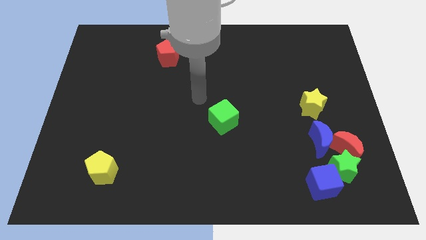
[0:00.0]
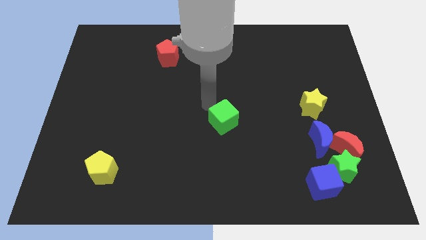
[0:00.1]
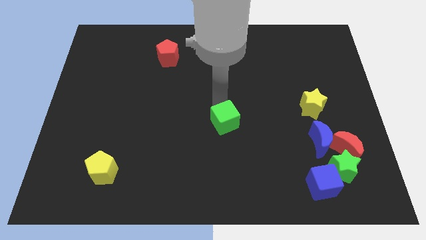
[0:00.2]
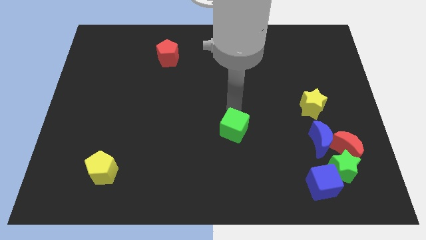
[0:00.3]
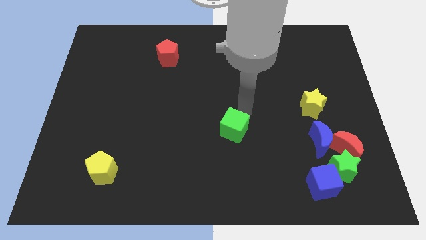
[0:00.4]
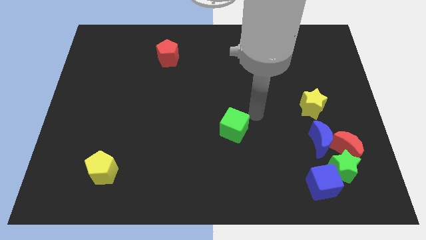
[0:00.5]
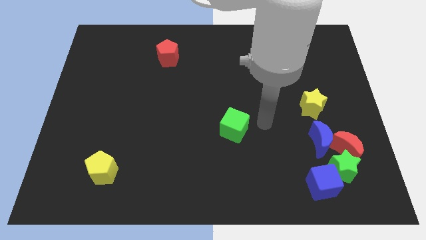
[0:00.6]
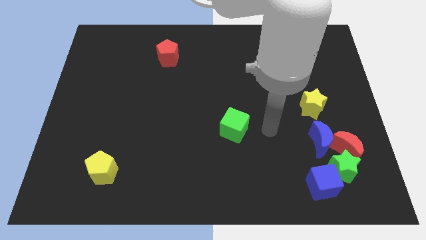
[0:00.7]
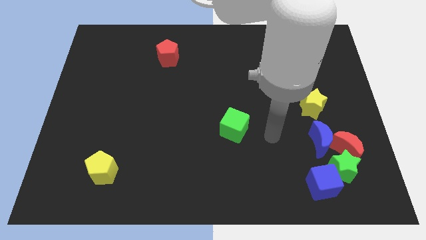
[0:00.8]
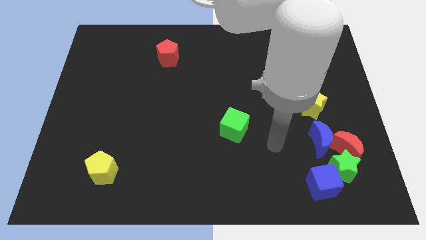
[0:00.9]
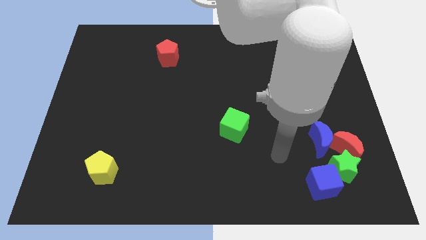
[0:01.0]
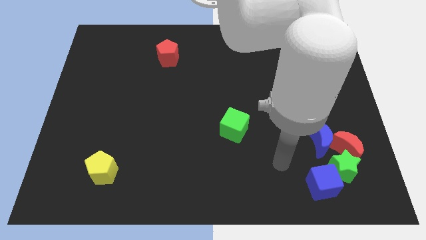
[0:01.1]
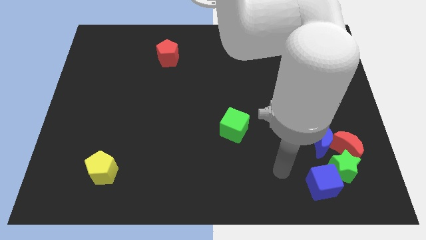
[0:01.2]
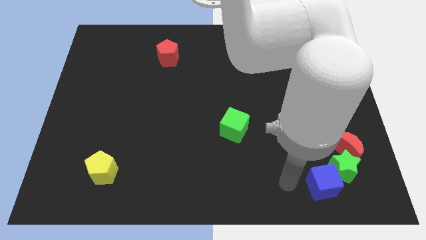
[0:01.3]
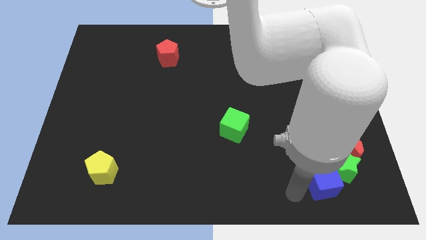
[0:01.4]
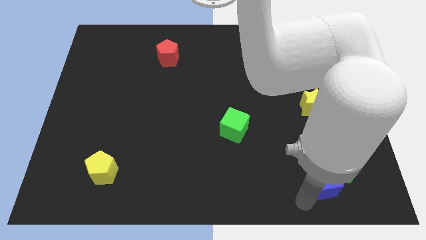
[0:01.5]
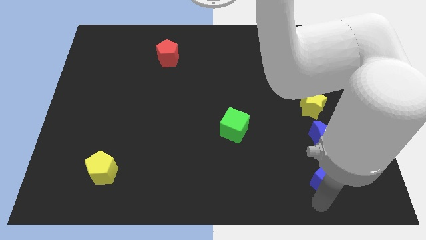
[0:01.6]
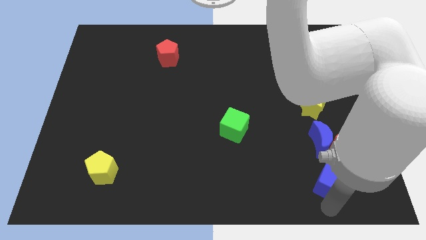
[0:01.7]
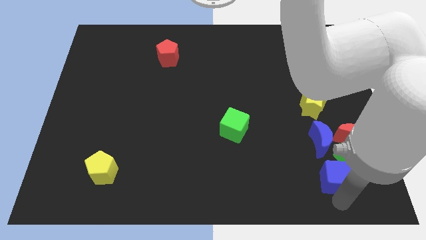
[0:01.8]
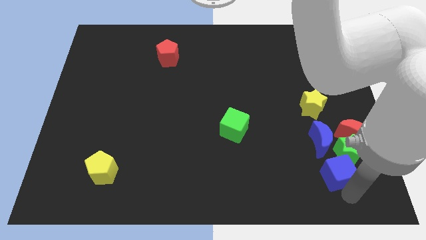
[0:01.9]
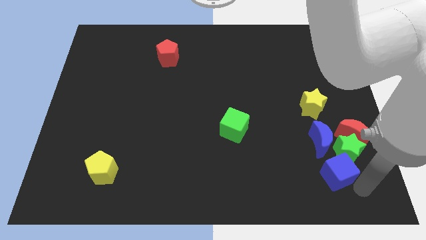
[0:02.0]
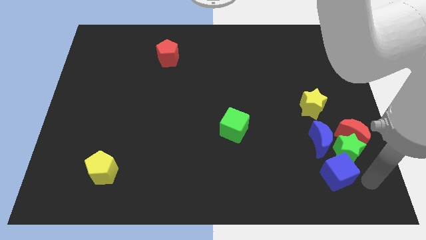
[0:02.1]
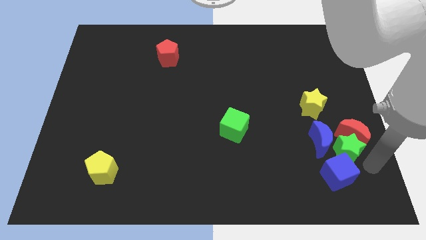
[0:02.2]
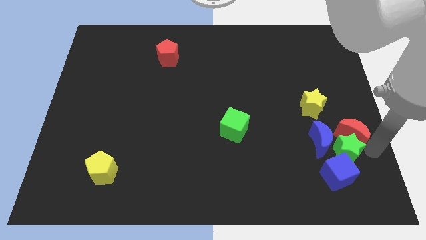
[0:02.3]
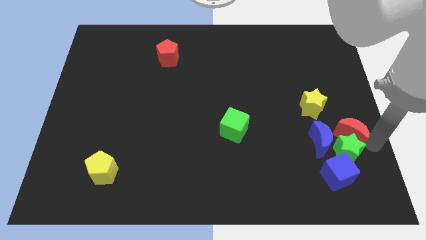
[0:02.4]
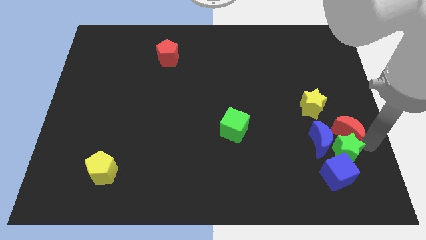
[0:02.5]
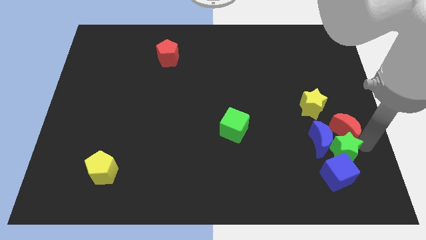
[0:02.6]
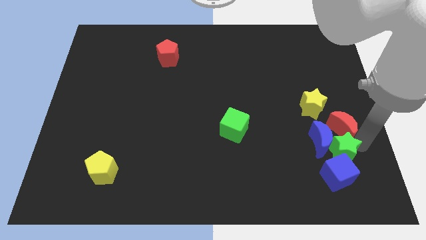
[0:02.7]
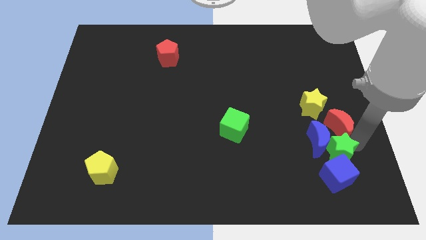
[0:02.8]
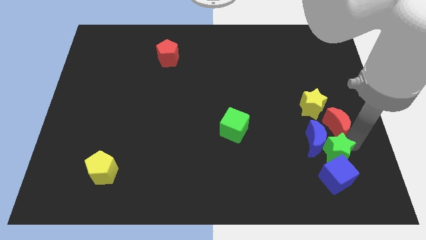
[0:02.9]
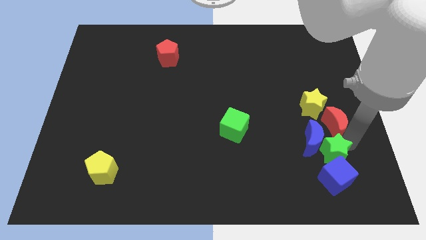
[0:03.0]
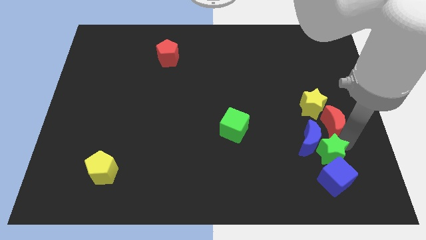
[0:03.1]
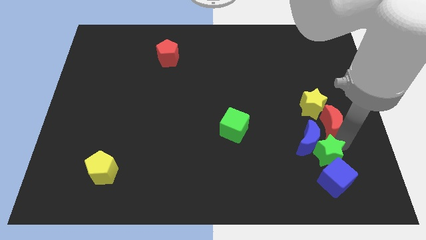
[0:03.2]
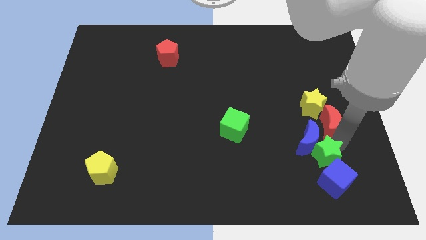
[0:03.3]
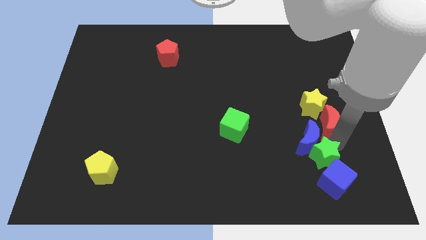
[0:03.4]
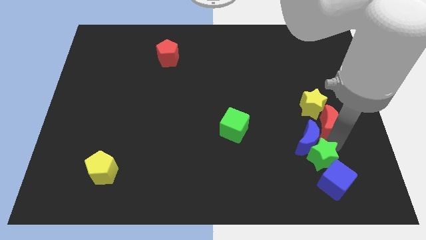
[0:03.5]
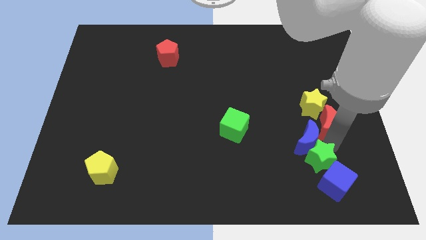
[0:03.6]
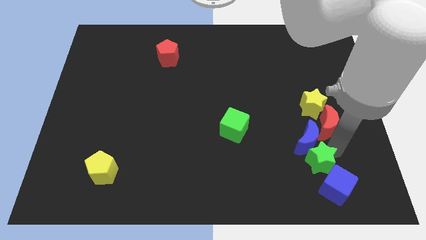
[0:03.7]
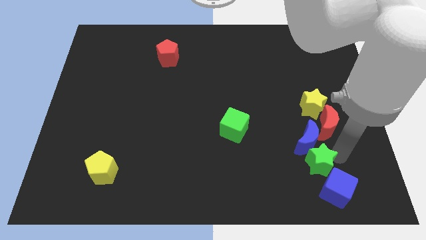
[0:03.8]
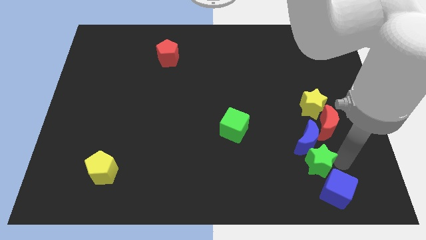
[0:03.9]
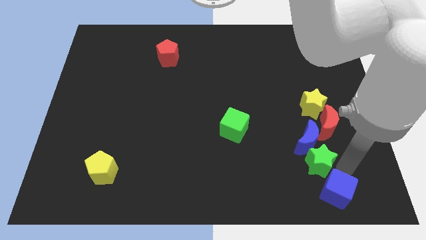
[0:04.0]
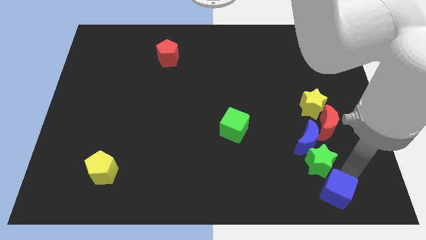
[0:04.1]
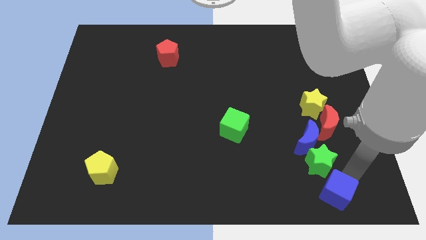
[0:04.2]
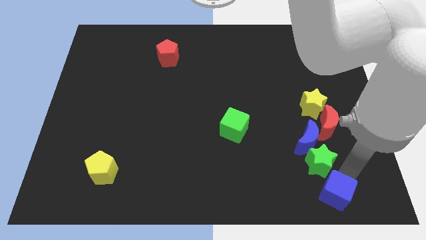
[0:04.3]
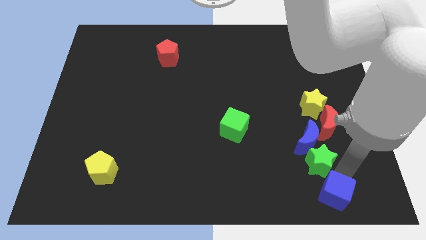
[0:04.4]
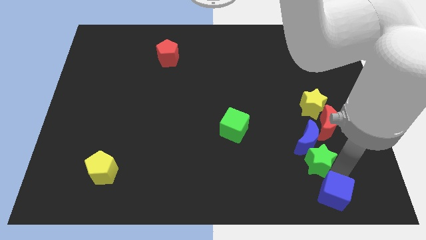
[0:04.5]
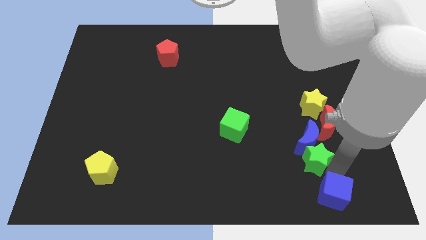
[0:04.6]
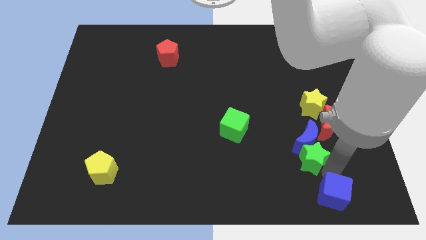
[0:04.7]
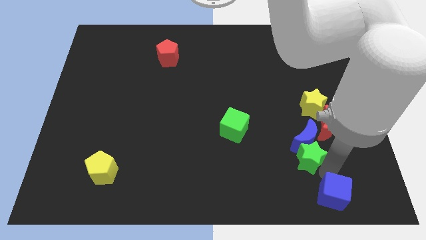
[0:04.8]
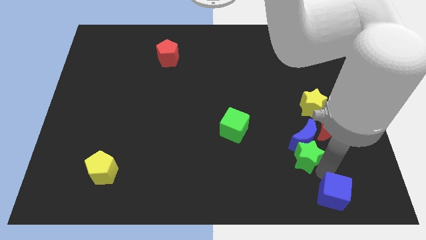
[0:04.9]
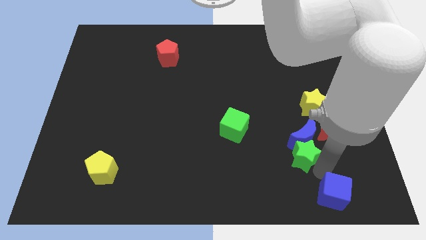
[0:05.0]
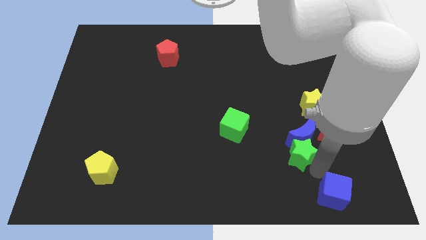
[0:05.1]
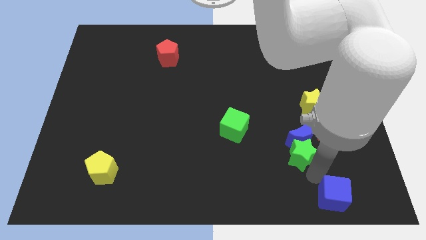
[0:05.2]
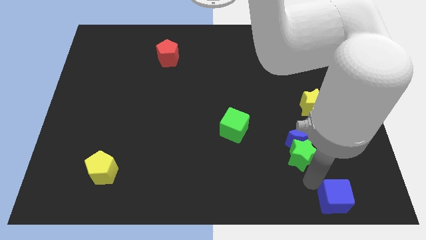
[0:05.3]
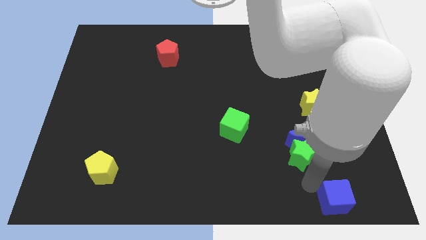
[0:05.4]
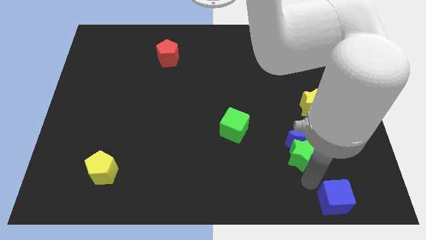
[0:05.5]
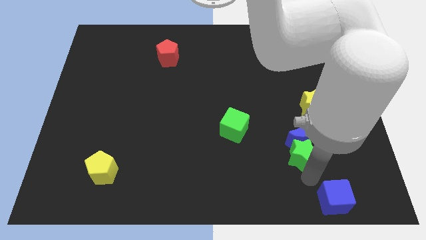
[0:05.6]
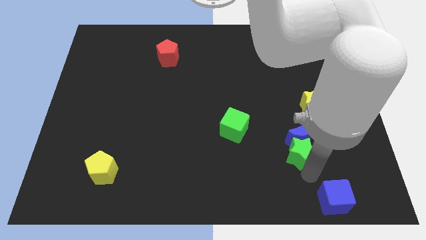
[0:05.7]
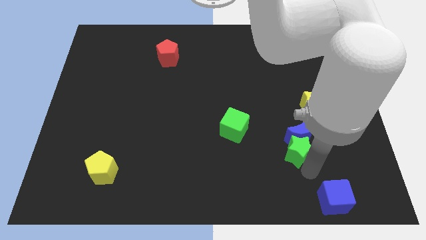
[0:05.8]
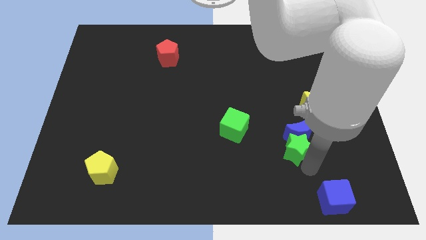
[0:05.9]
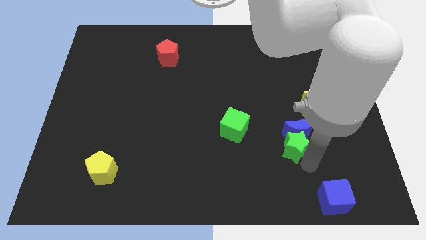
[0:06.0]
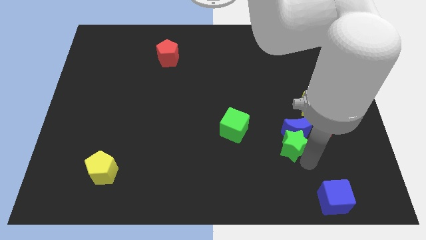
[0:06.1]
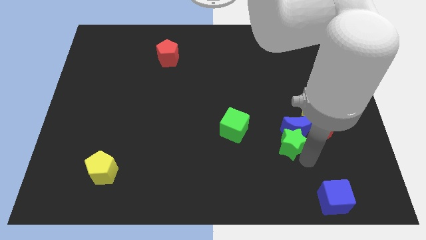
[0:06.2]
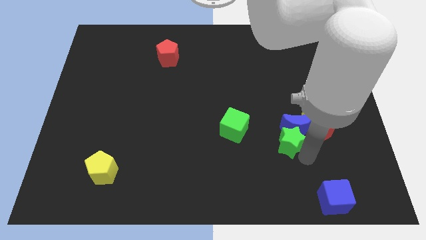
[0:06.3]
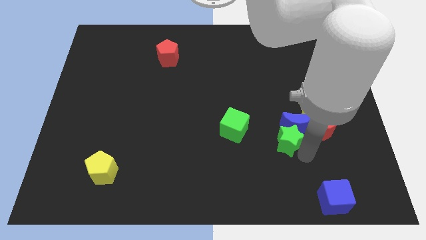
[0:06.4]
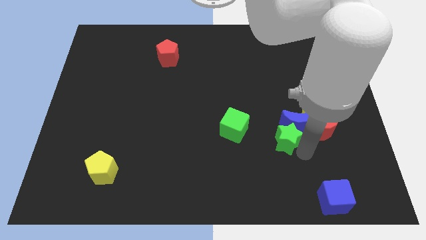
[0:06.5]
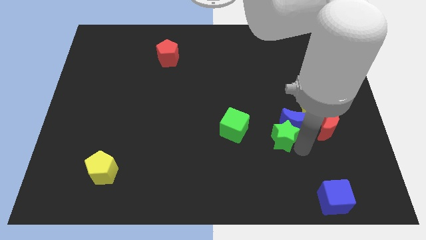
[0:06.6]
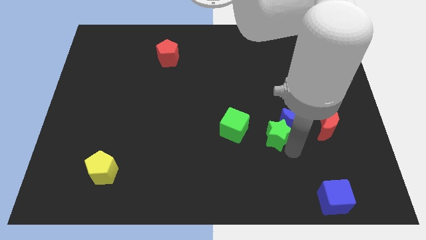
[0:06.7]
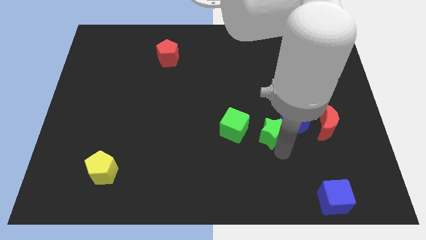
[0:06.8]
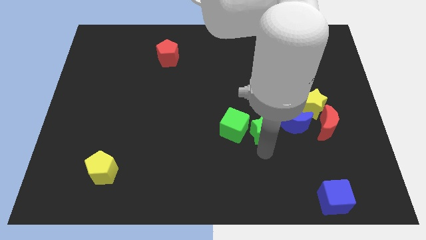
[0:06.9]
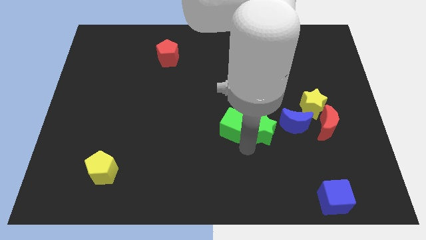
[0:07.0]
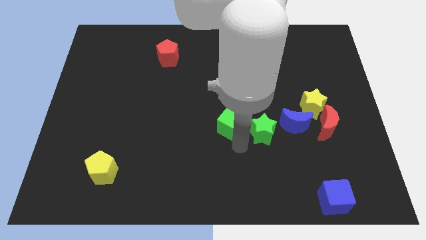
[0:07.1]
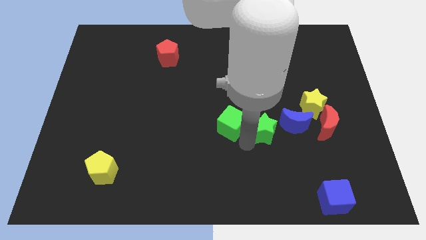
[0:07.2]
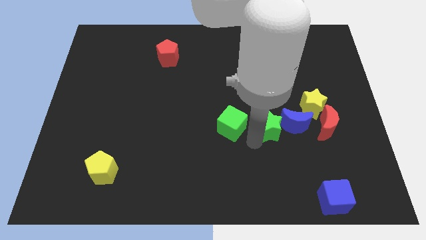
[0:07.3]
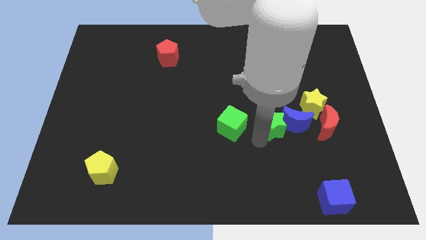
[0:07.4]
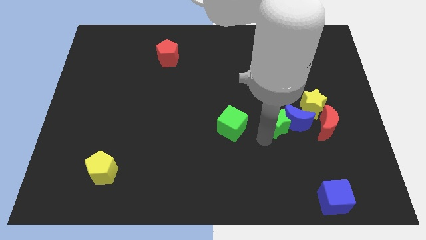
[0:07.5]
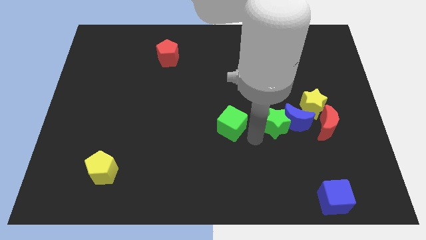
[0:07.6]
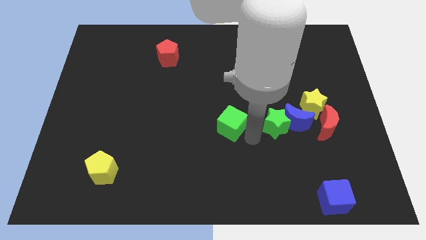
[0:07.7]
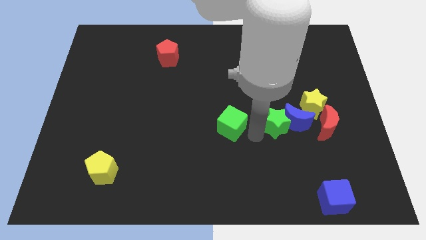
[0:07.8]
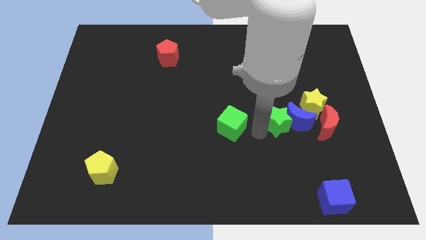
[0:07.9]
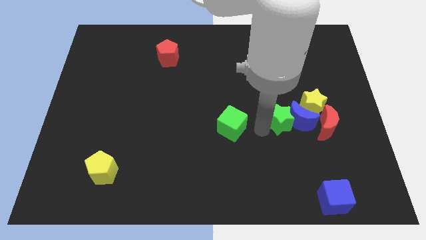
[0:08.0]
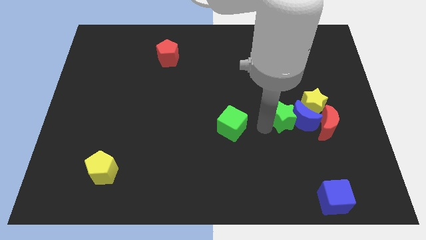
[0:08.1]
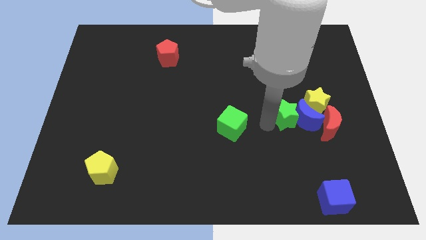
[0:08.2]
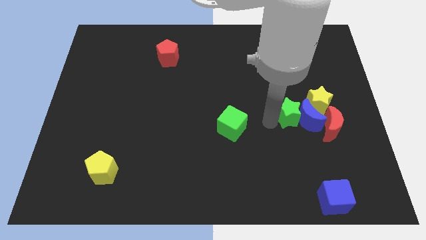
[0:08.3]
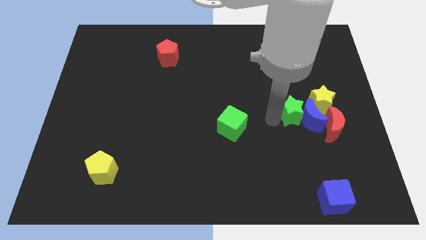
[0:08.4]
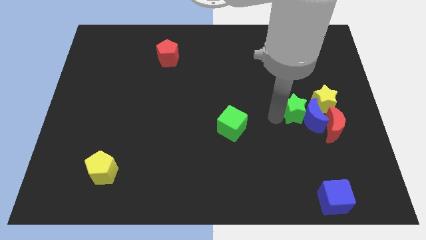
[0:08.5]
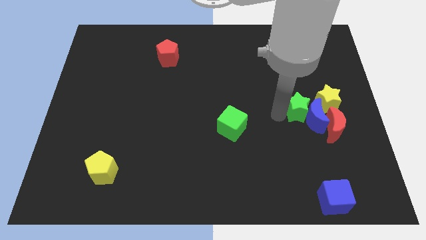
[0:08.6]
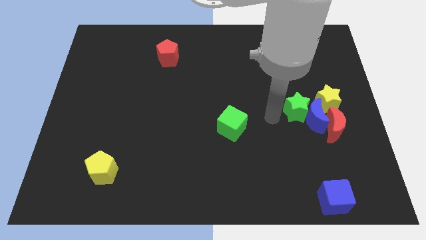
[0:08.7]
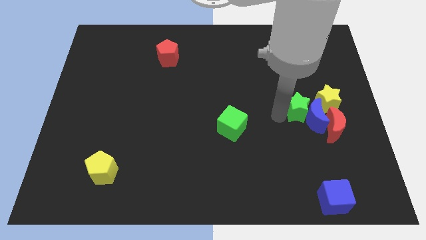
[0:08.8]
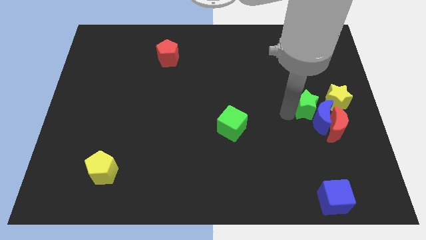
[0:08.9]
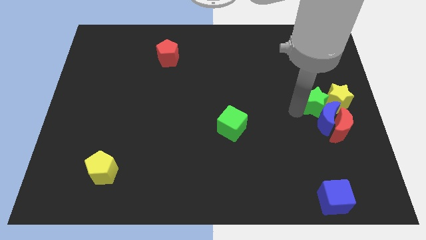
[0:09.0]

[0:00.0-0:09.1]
move the green star next to the yellow star
